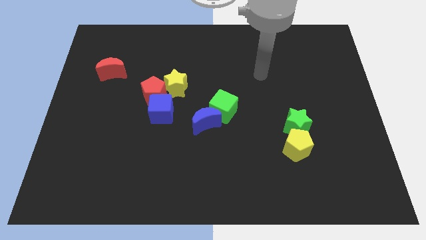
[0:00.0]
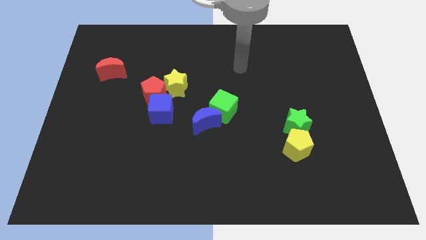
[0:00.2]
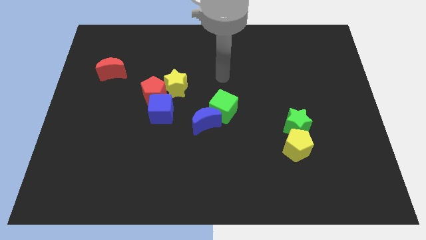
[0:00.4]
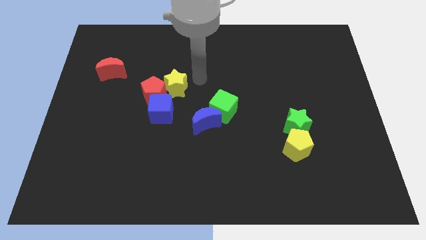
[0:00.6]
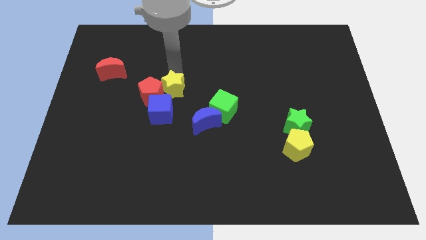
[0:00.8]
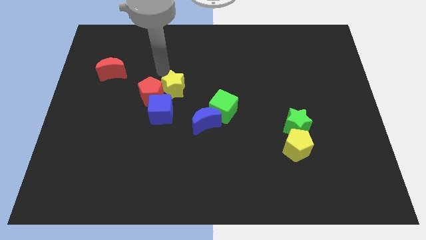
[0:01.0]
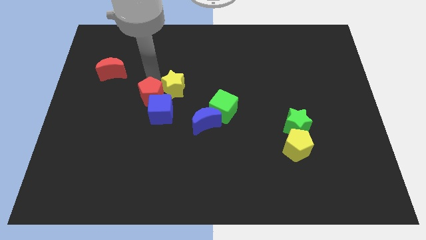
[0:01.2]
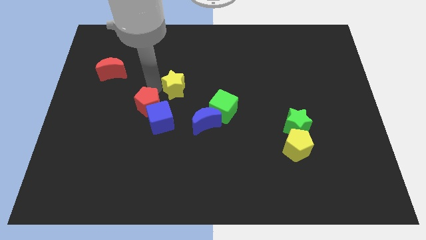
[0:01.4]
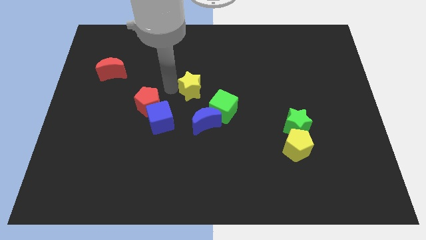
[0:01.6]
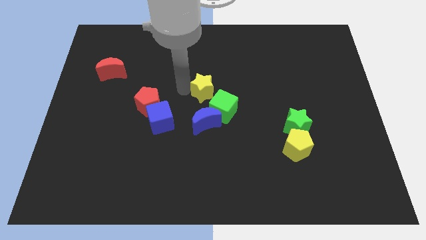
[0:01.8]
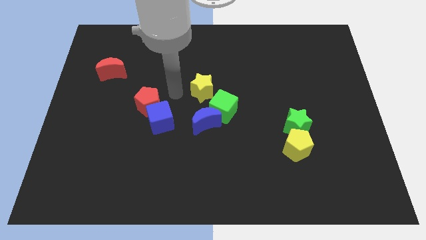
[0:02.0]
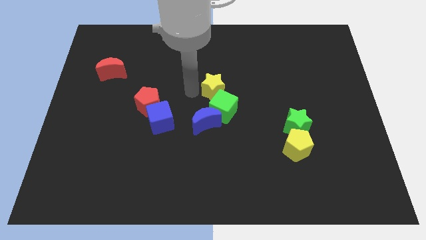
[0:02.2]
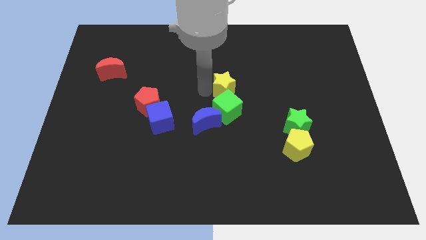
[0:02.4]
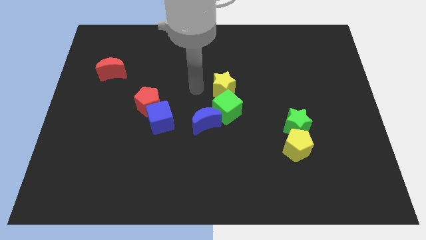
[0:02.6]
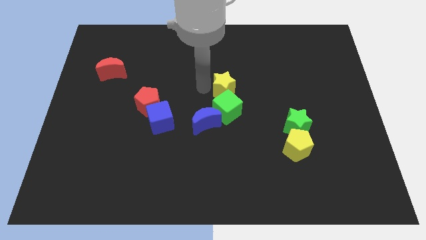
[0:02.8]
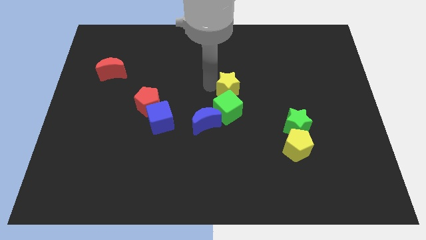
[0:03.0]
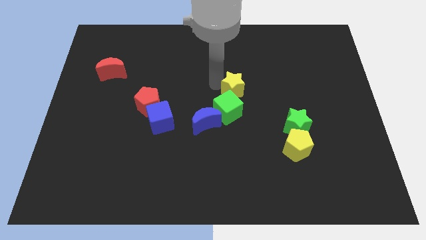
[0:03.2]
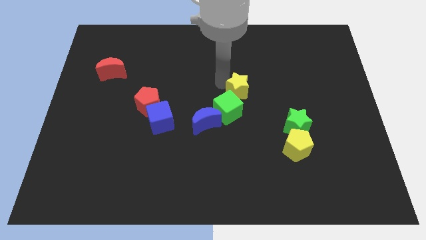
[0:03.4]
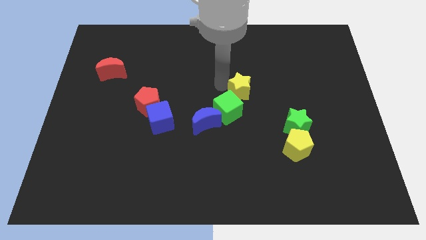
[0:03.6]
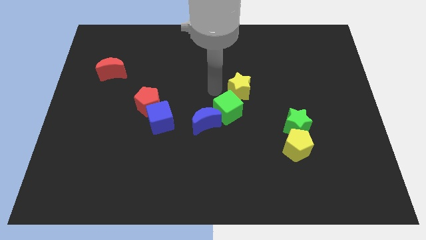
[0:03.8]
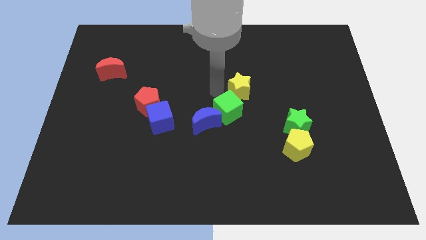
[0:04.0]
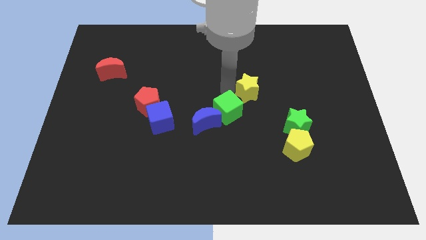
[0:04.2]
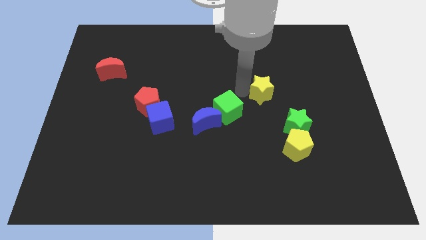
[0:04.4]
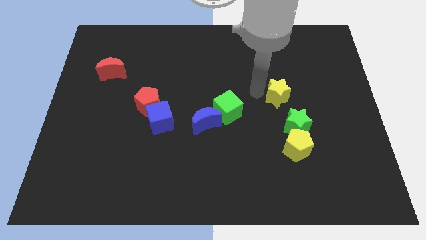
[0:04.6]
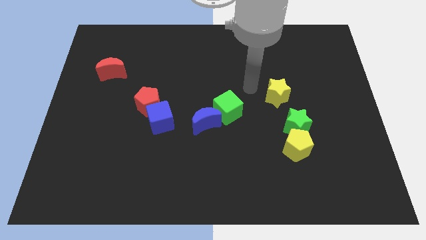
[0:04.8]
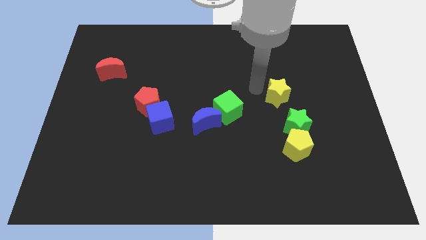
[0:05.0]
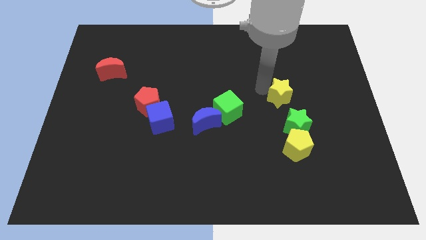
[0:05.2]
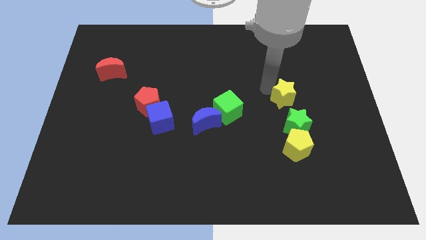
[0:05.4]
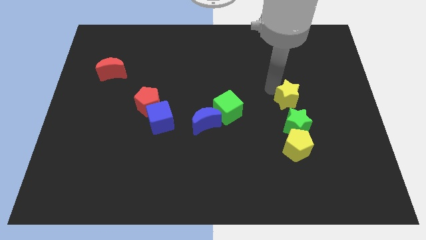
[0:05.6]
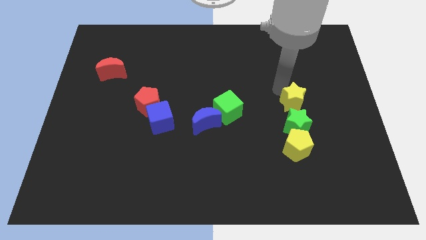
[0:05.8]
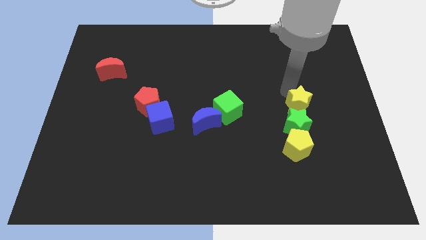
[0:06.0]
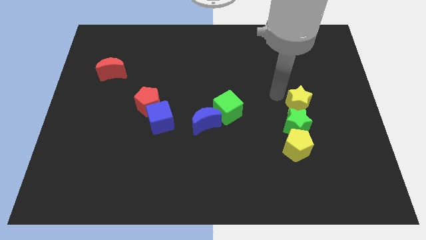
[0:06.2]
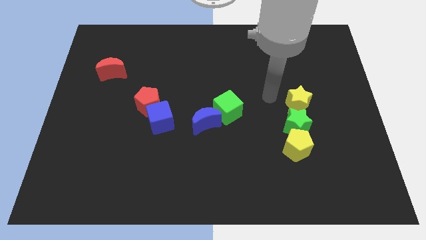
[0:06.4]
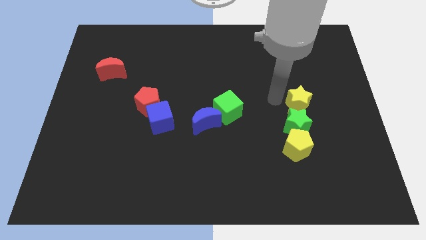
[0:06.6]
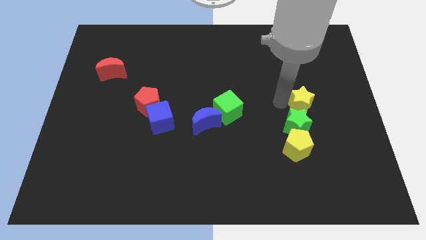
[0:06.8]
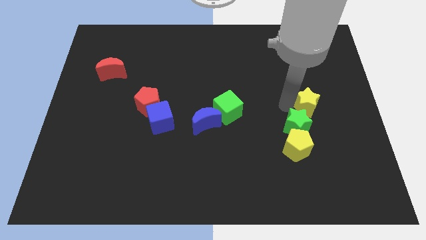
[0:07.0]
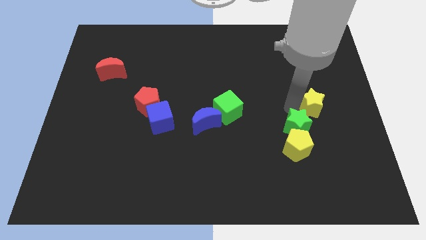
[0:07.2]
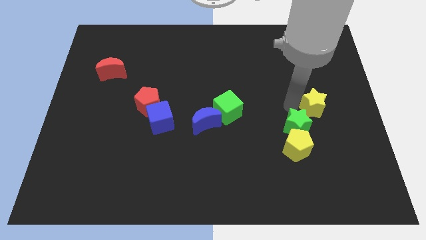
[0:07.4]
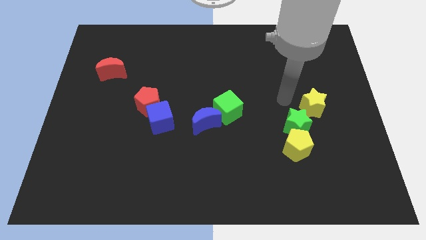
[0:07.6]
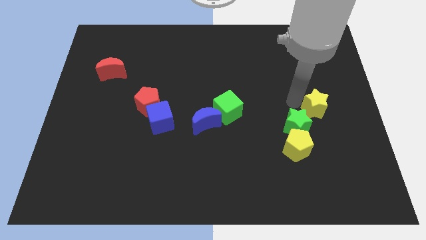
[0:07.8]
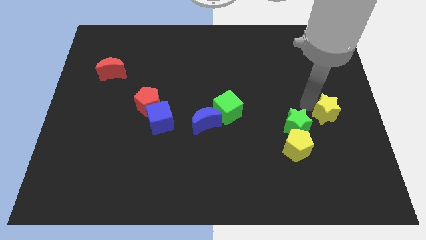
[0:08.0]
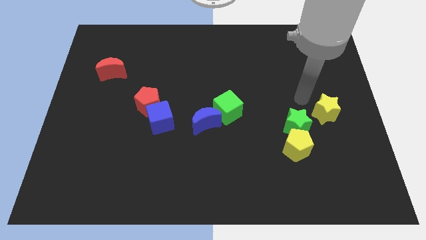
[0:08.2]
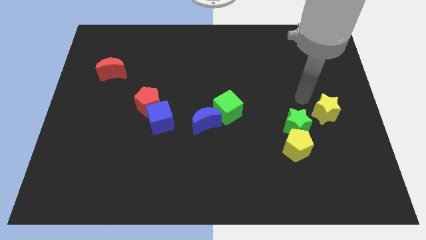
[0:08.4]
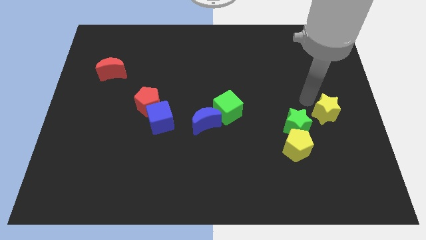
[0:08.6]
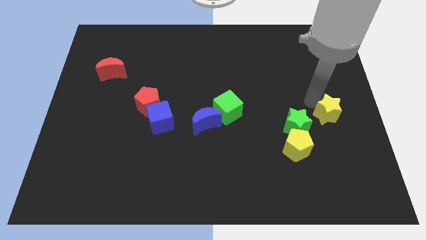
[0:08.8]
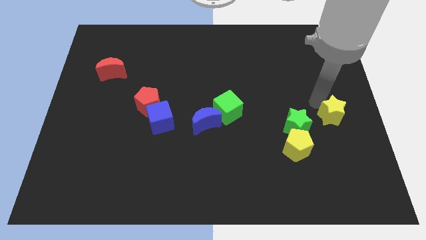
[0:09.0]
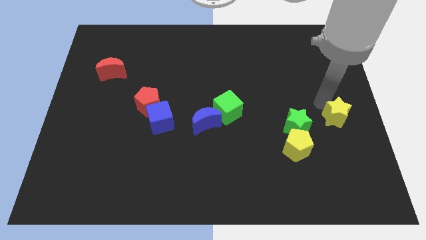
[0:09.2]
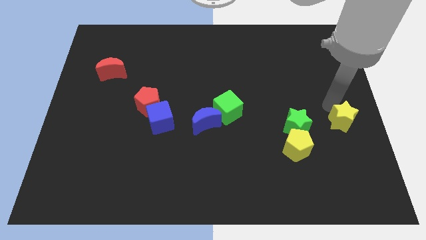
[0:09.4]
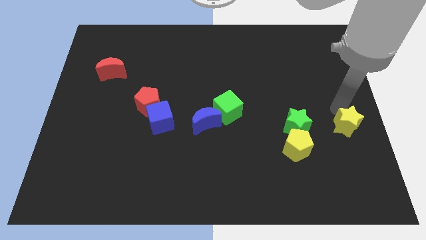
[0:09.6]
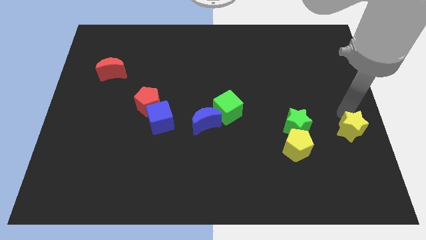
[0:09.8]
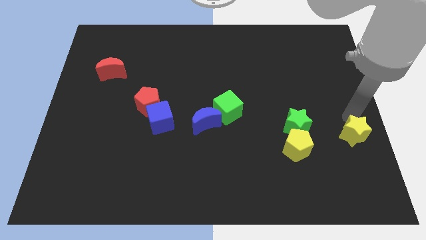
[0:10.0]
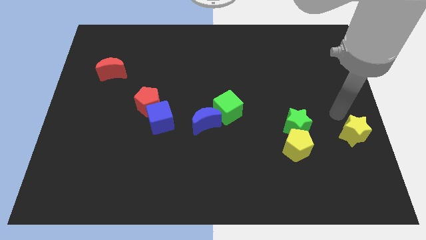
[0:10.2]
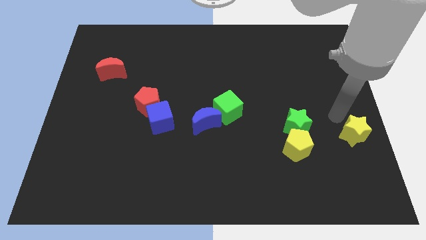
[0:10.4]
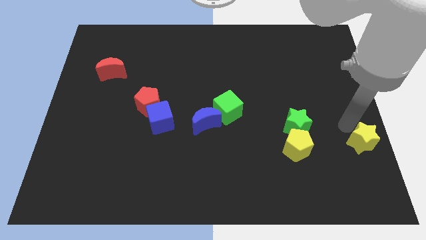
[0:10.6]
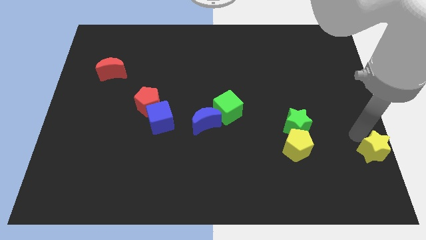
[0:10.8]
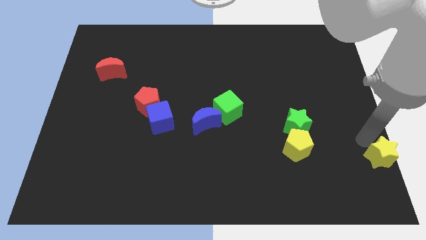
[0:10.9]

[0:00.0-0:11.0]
push the yellow star to the lower right corner
